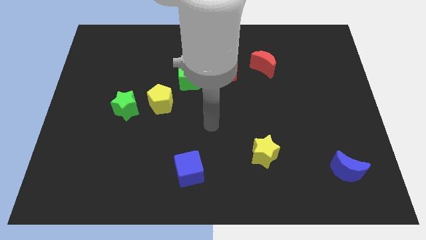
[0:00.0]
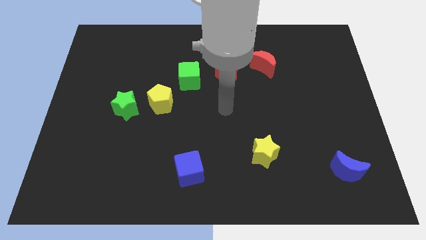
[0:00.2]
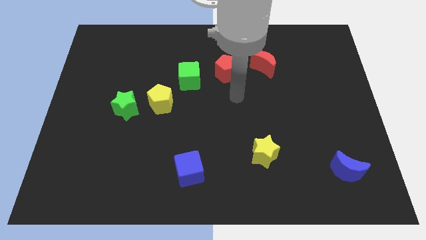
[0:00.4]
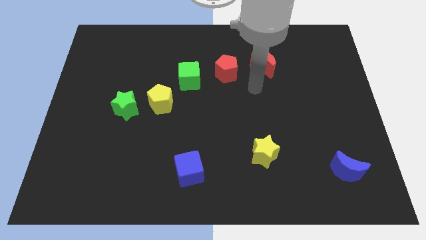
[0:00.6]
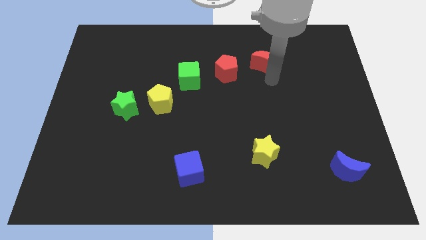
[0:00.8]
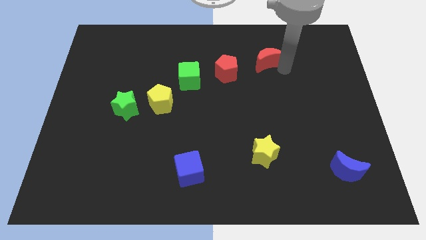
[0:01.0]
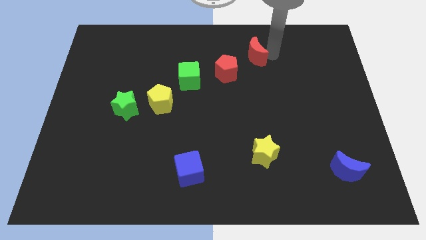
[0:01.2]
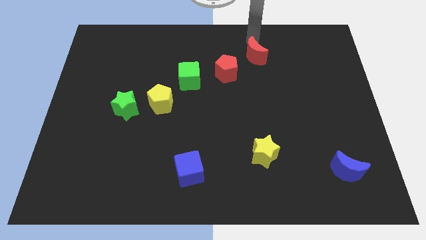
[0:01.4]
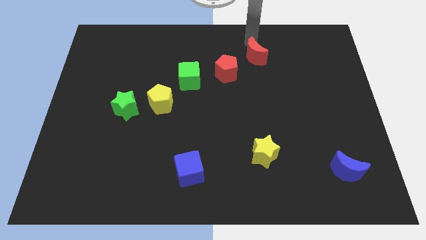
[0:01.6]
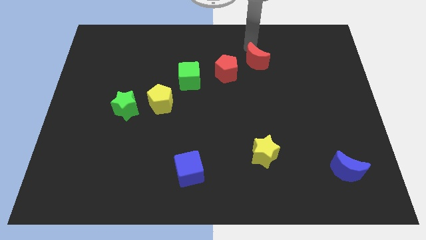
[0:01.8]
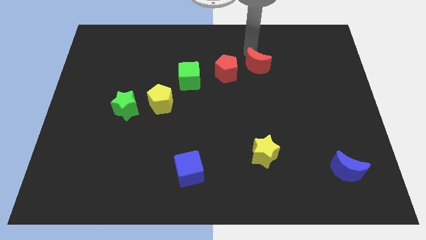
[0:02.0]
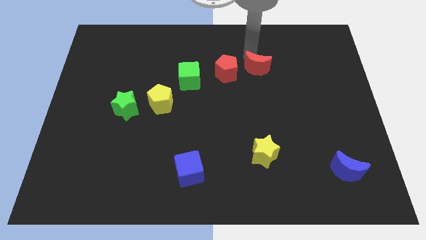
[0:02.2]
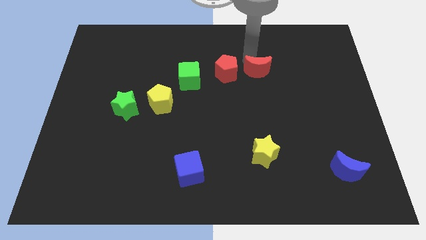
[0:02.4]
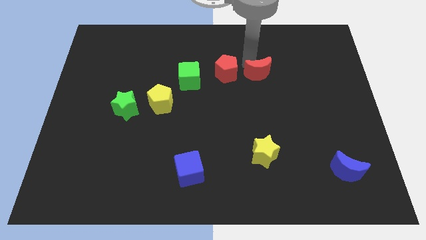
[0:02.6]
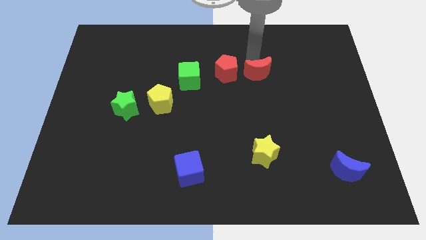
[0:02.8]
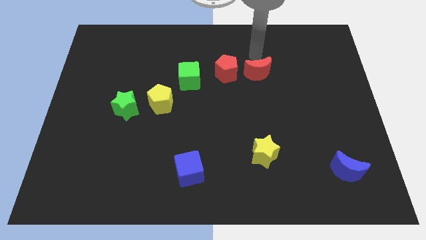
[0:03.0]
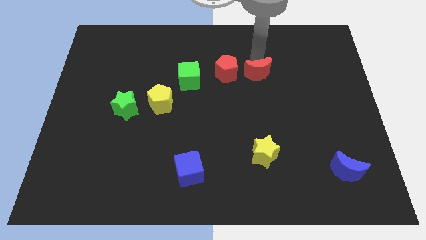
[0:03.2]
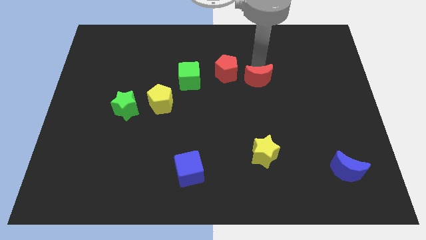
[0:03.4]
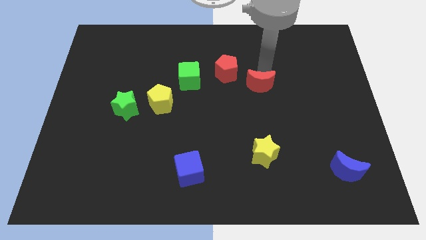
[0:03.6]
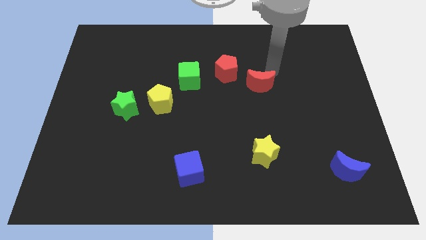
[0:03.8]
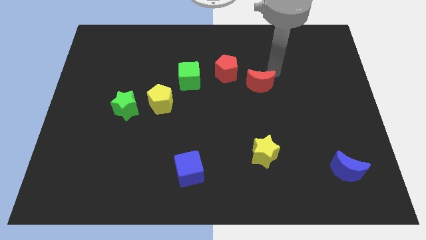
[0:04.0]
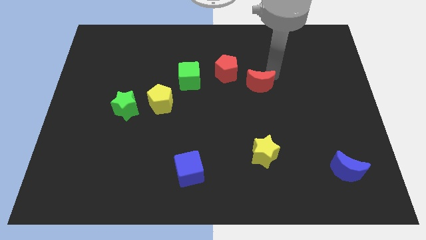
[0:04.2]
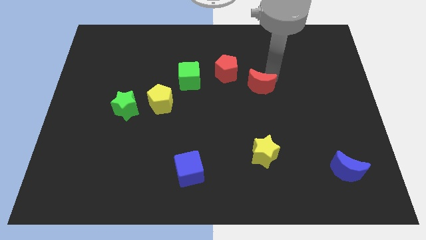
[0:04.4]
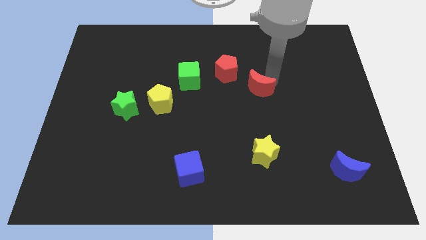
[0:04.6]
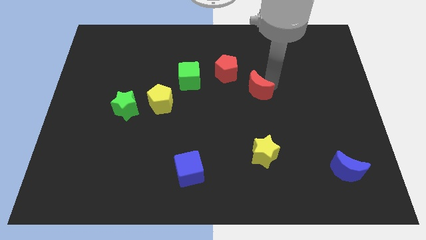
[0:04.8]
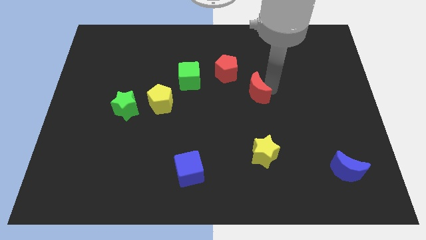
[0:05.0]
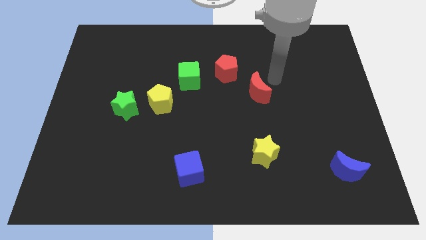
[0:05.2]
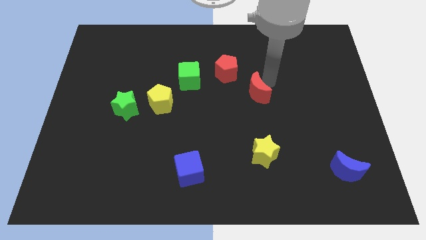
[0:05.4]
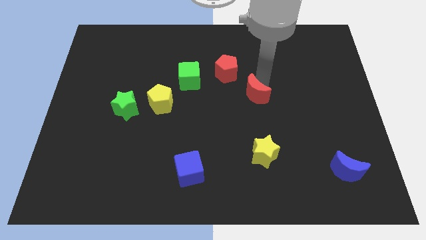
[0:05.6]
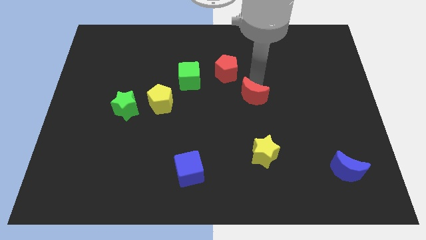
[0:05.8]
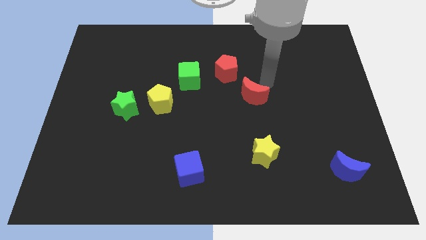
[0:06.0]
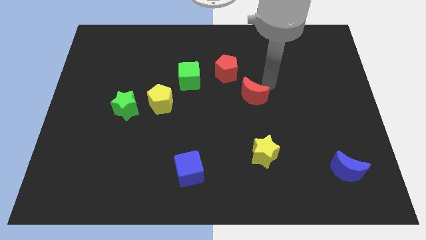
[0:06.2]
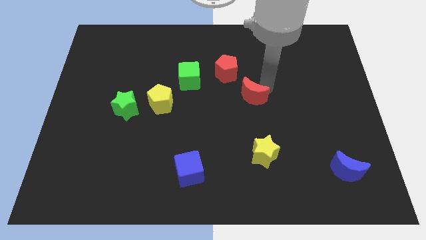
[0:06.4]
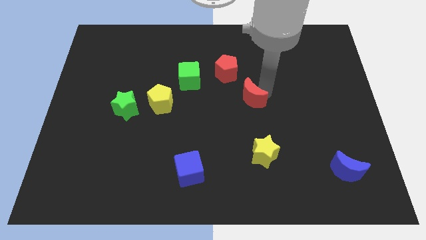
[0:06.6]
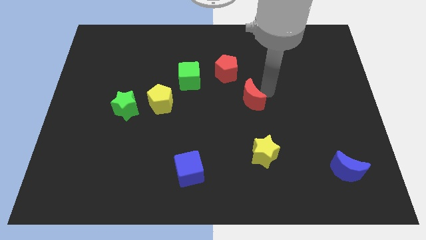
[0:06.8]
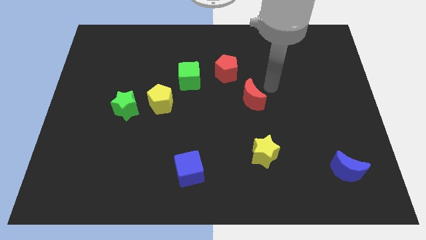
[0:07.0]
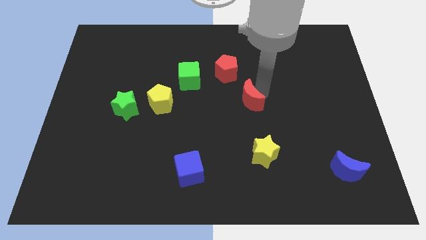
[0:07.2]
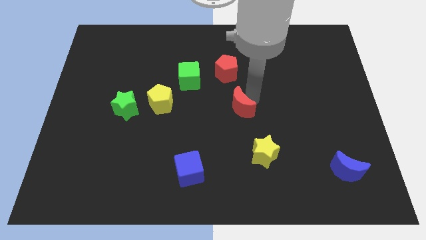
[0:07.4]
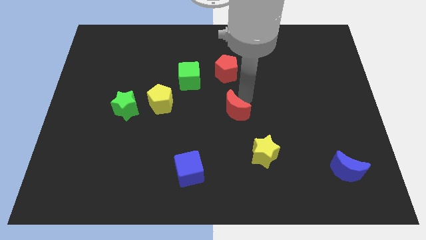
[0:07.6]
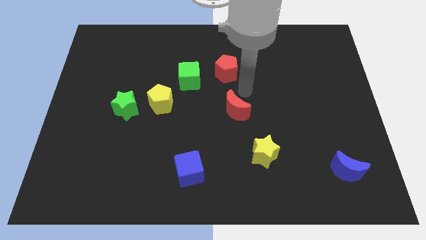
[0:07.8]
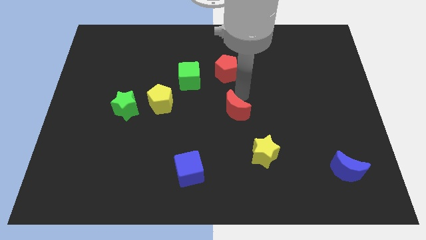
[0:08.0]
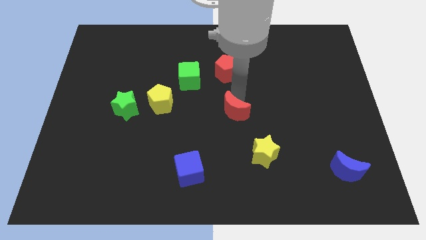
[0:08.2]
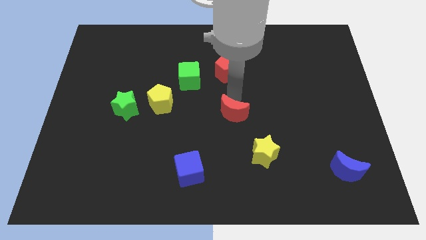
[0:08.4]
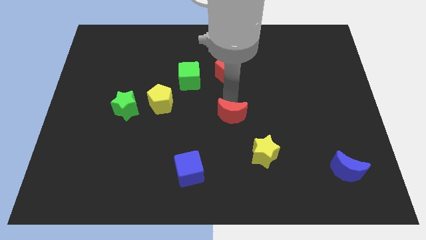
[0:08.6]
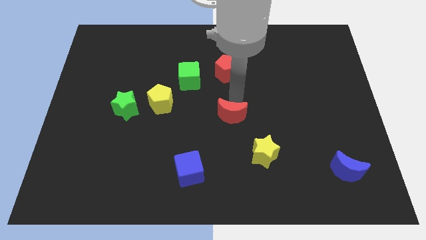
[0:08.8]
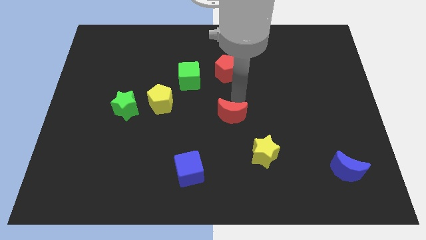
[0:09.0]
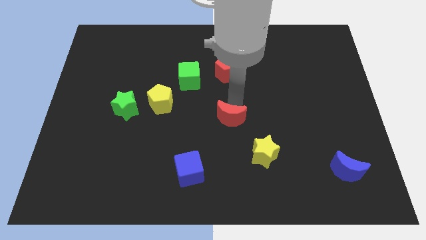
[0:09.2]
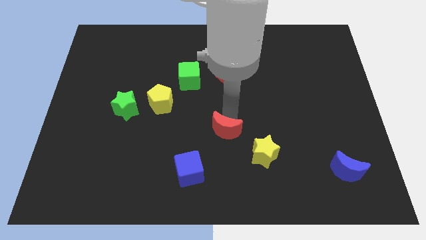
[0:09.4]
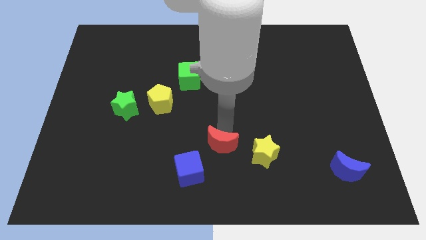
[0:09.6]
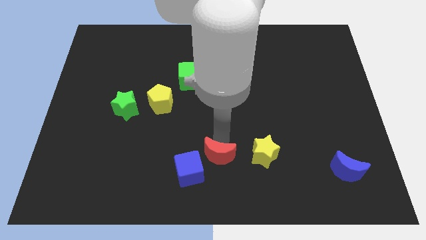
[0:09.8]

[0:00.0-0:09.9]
push the red moon to the bottom

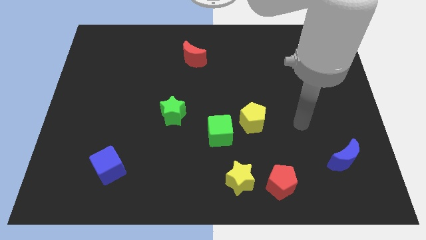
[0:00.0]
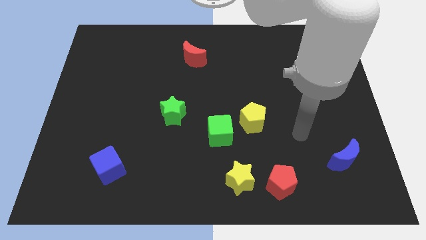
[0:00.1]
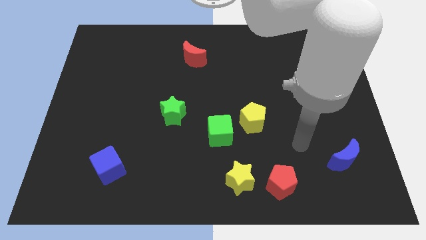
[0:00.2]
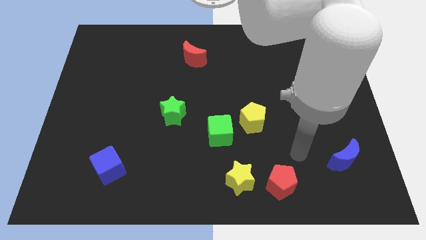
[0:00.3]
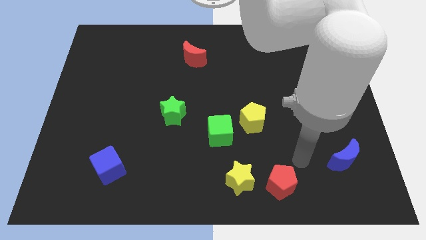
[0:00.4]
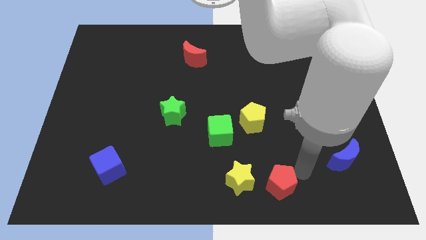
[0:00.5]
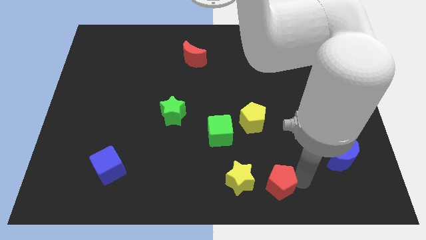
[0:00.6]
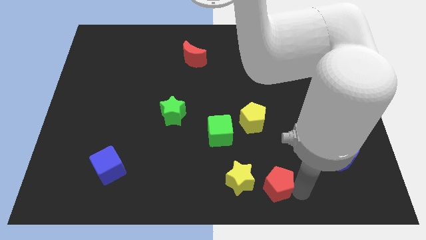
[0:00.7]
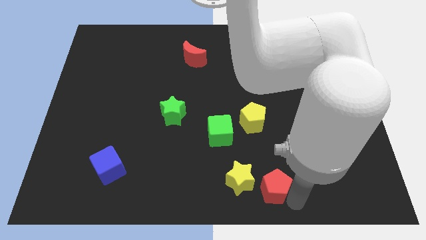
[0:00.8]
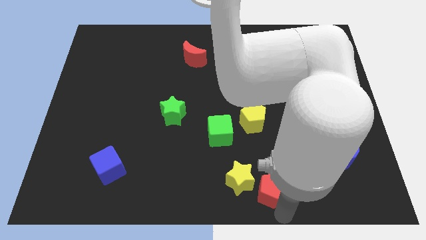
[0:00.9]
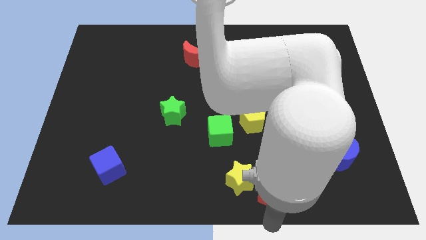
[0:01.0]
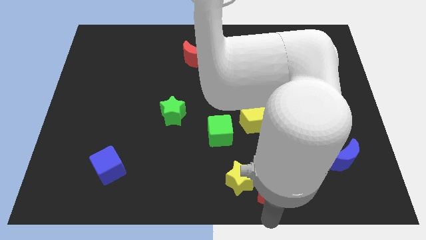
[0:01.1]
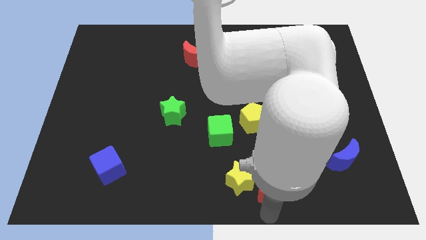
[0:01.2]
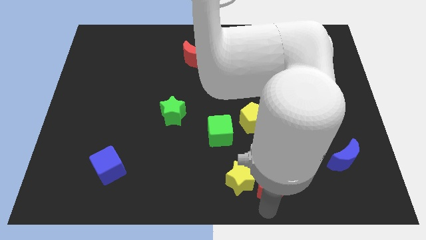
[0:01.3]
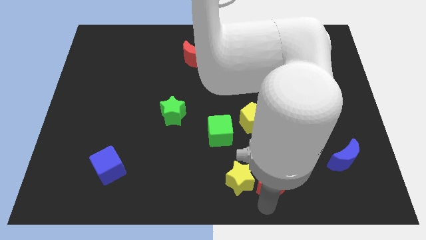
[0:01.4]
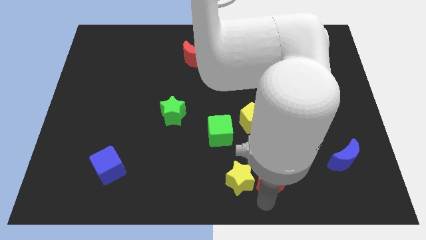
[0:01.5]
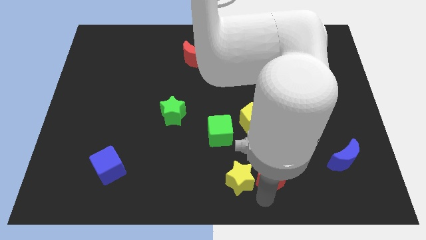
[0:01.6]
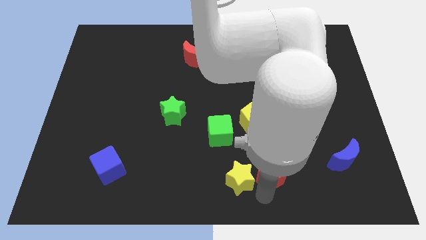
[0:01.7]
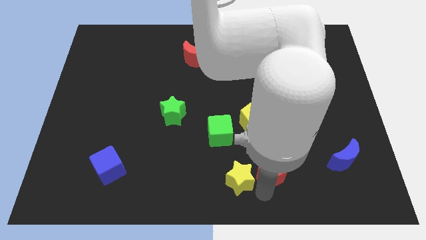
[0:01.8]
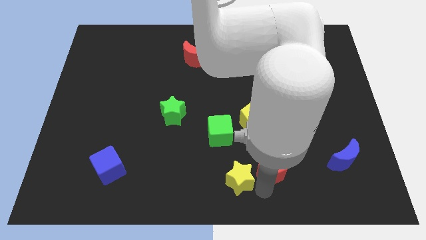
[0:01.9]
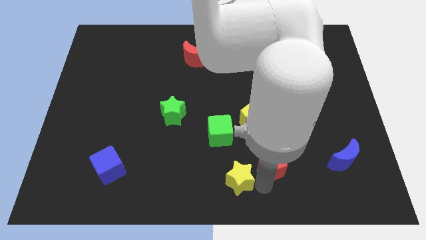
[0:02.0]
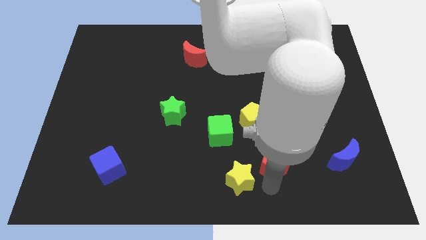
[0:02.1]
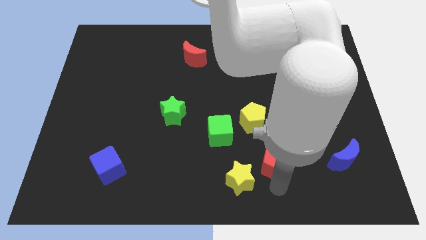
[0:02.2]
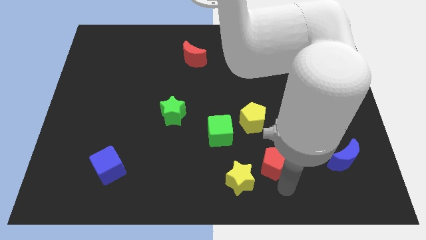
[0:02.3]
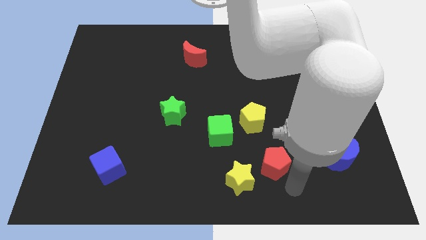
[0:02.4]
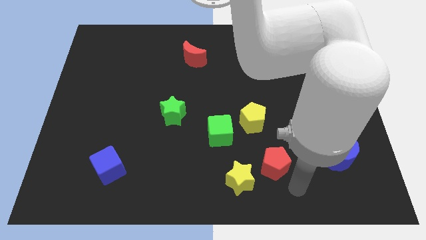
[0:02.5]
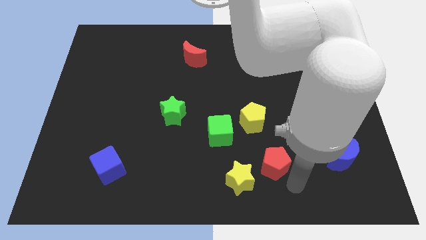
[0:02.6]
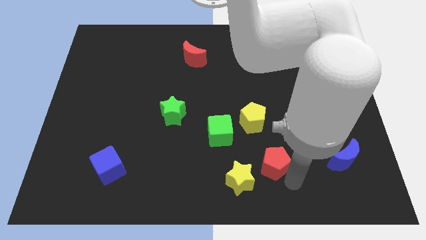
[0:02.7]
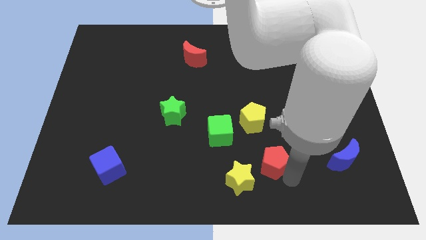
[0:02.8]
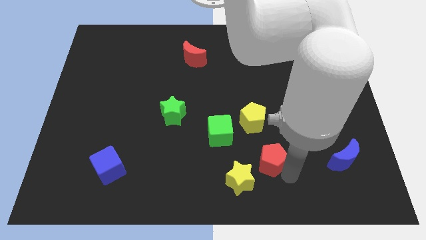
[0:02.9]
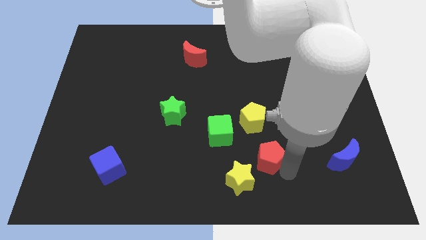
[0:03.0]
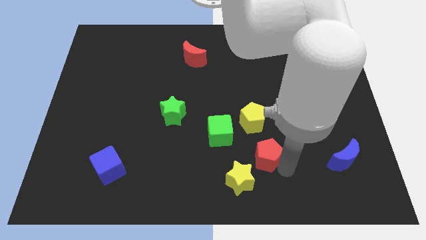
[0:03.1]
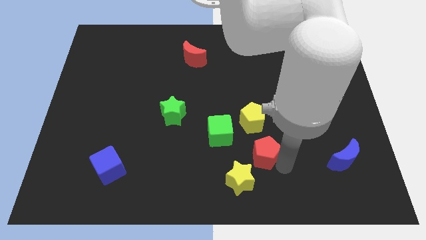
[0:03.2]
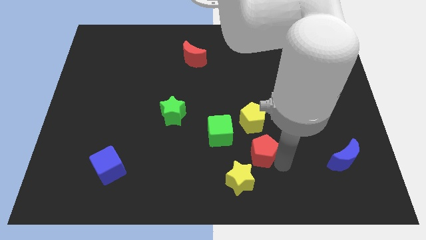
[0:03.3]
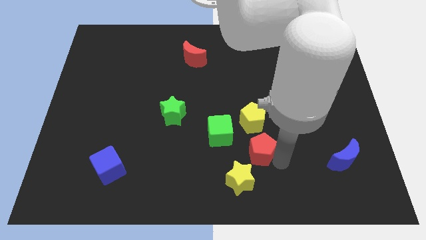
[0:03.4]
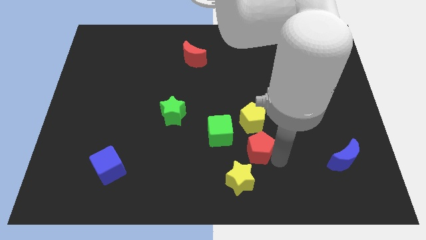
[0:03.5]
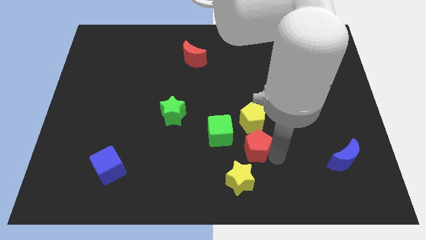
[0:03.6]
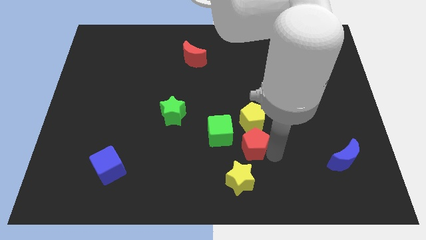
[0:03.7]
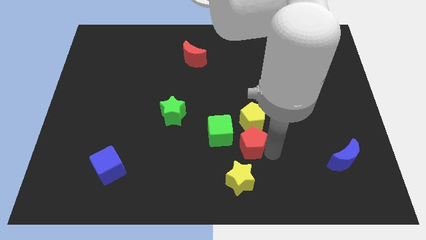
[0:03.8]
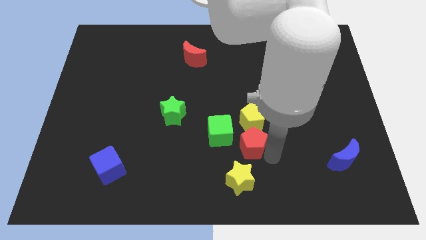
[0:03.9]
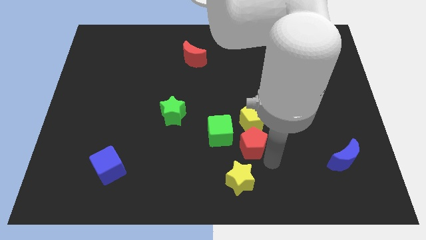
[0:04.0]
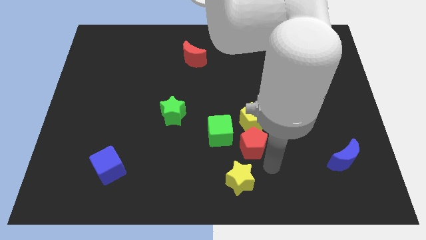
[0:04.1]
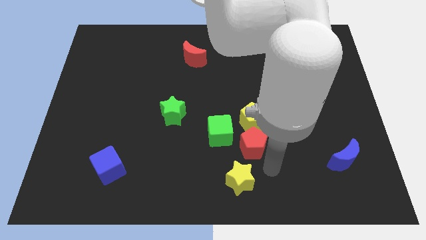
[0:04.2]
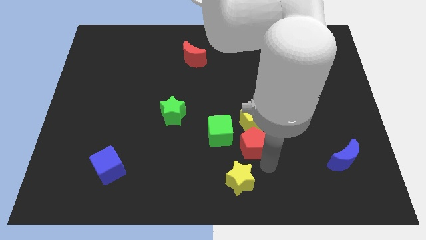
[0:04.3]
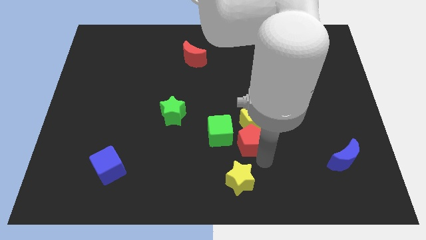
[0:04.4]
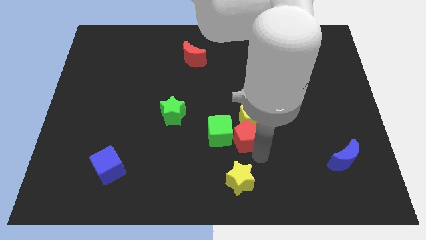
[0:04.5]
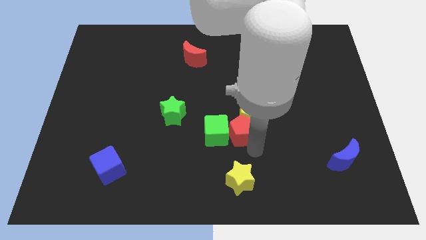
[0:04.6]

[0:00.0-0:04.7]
push the red pentagon to the middle
